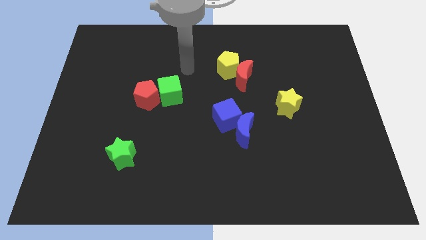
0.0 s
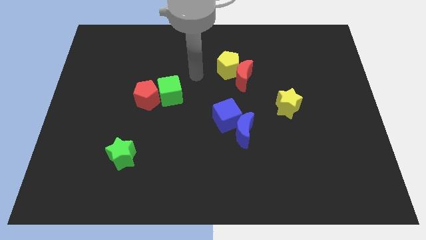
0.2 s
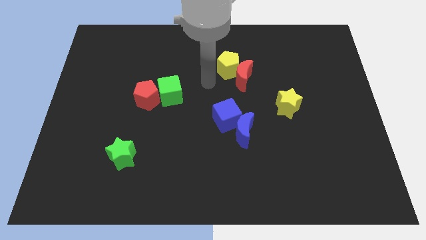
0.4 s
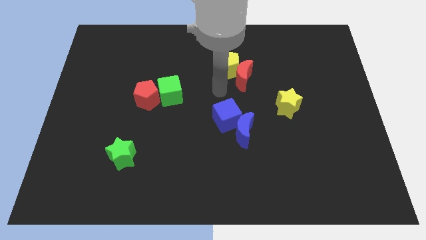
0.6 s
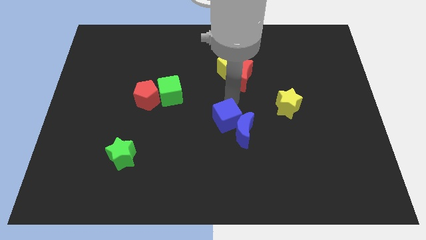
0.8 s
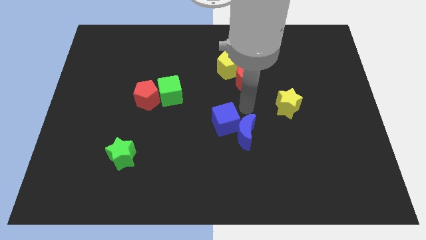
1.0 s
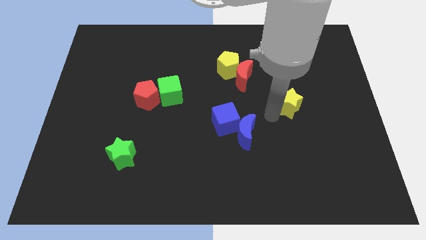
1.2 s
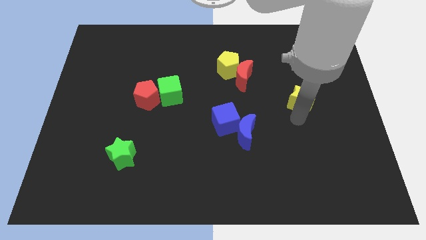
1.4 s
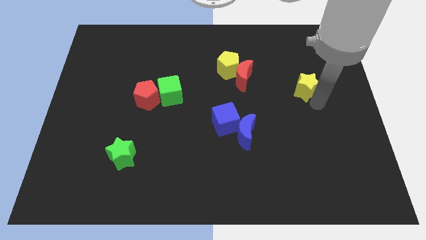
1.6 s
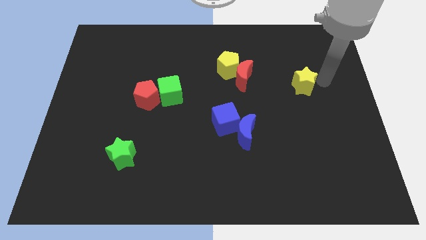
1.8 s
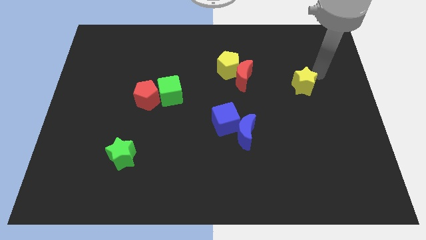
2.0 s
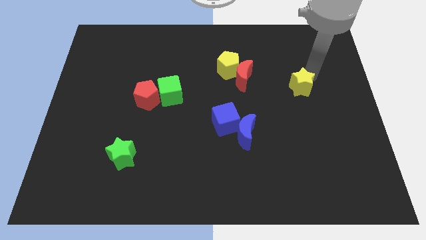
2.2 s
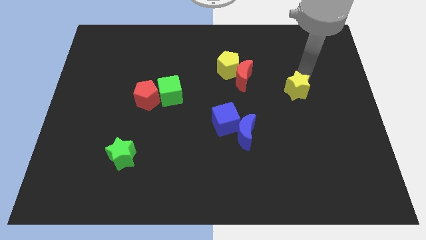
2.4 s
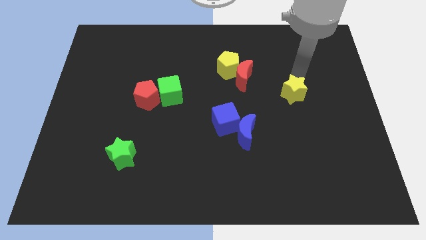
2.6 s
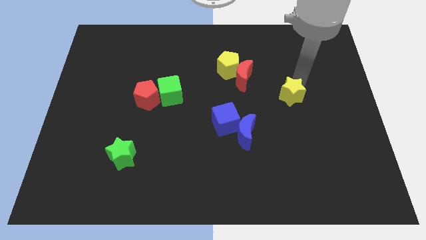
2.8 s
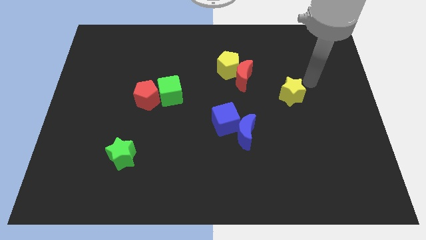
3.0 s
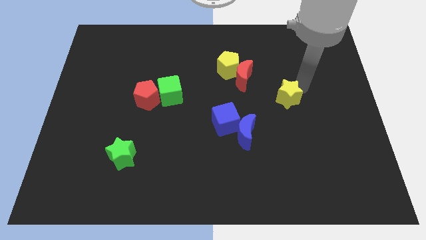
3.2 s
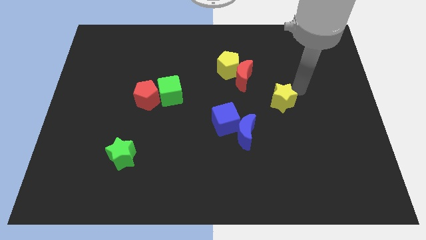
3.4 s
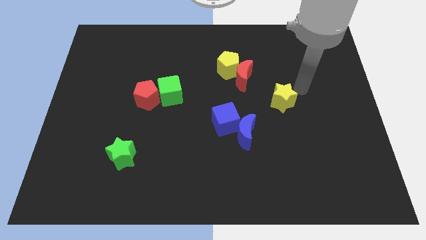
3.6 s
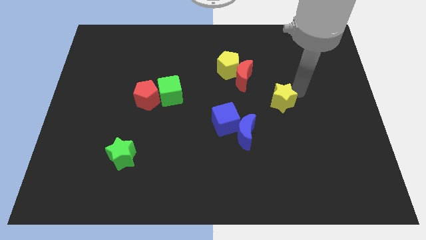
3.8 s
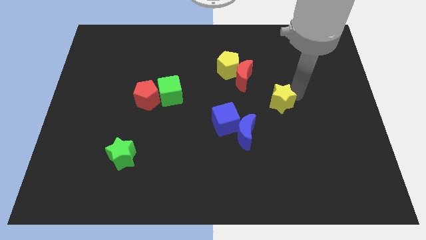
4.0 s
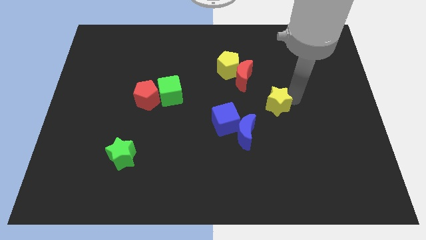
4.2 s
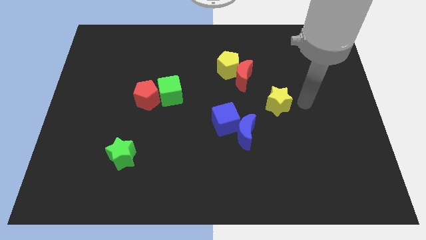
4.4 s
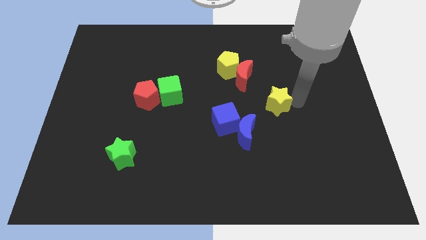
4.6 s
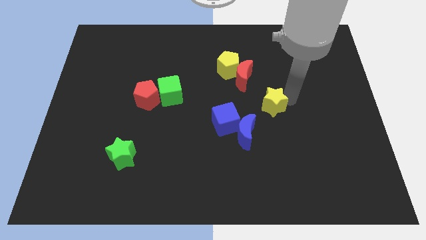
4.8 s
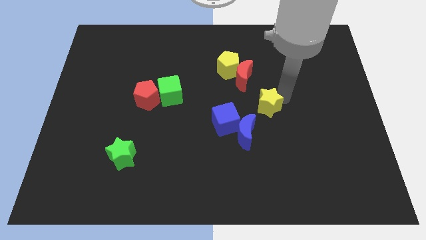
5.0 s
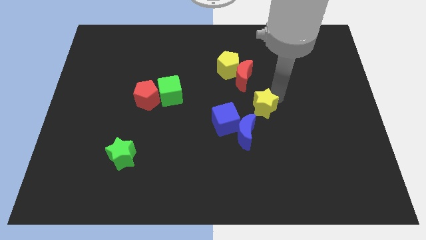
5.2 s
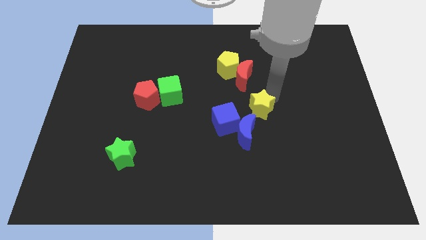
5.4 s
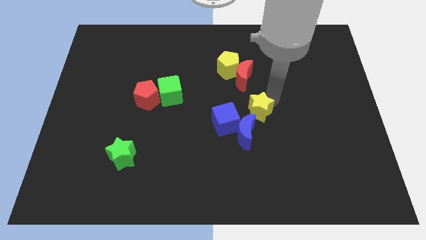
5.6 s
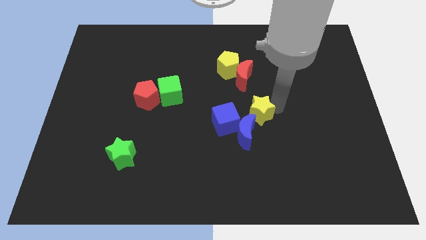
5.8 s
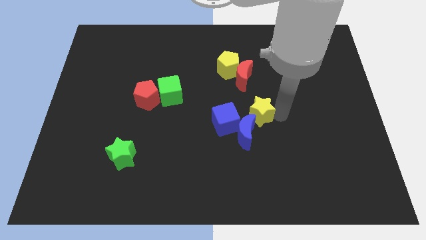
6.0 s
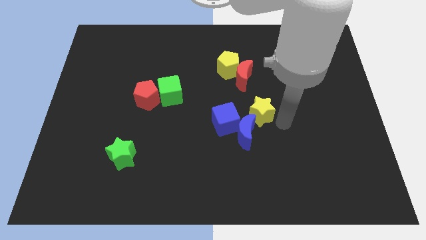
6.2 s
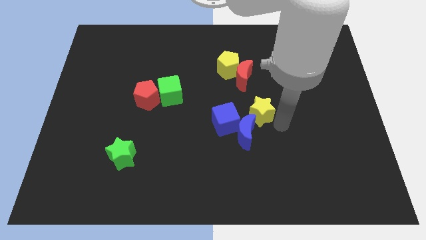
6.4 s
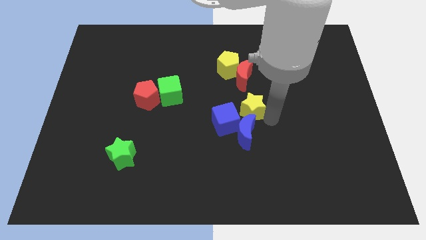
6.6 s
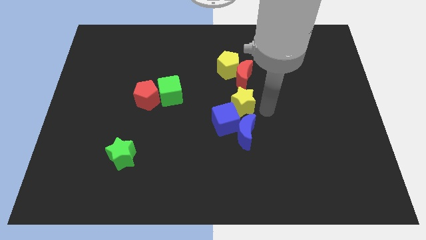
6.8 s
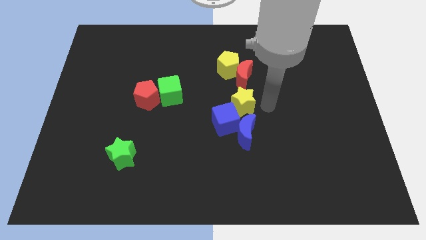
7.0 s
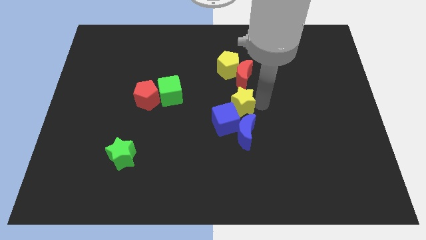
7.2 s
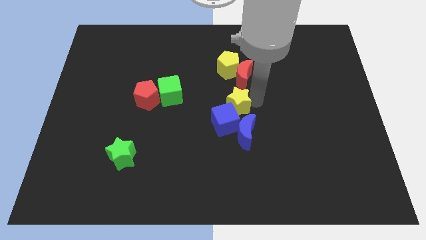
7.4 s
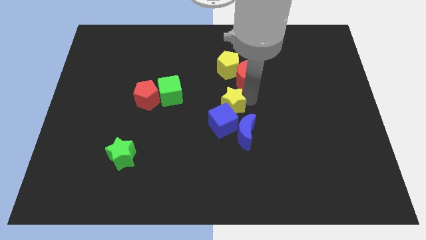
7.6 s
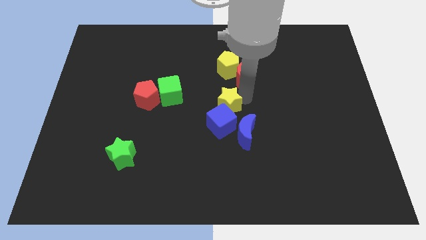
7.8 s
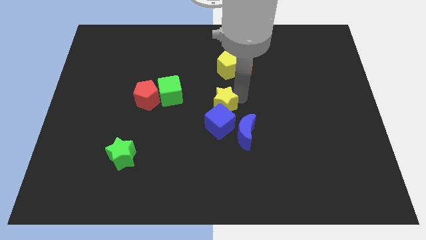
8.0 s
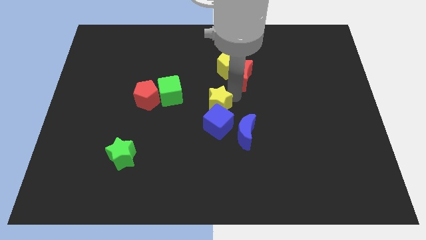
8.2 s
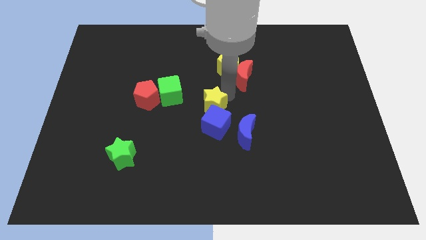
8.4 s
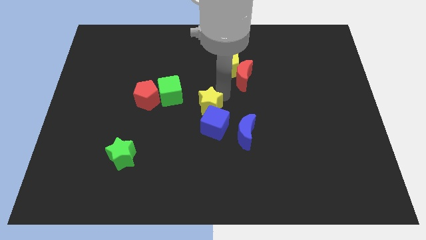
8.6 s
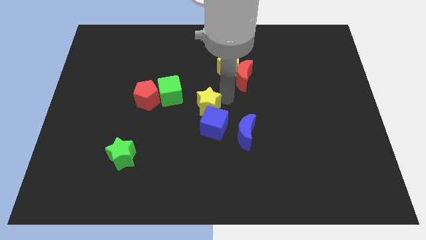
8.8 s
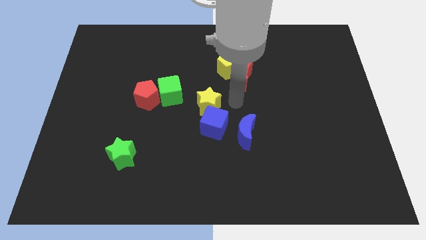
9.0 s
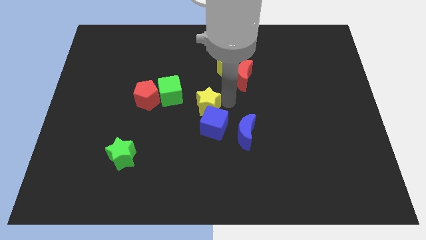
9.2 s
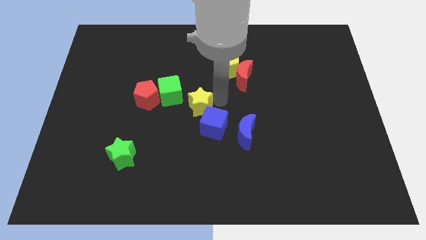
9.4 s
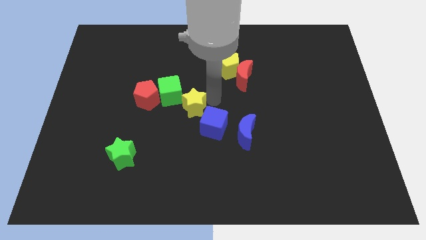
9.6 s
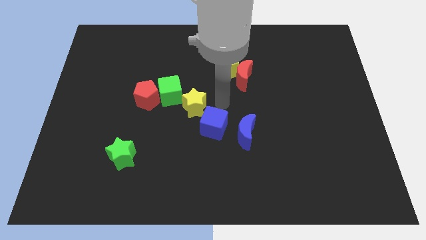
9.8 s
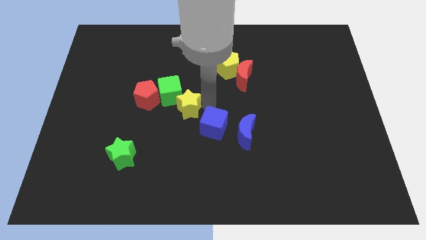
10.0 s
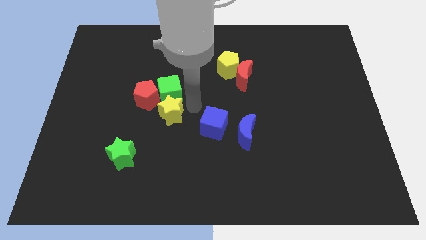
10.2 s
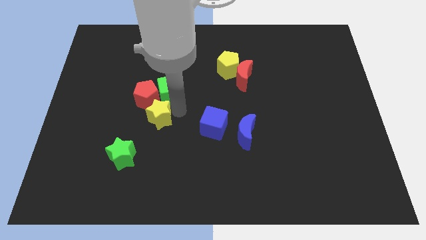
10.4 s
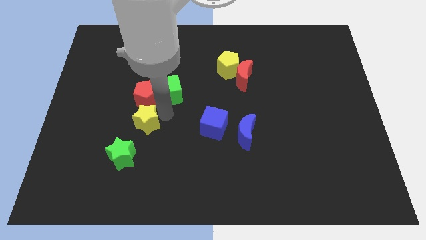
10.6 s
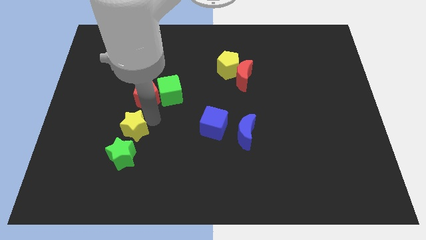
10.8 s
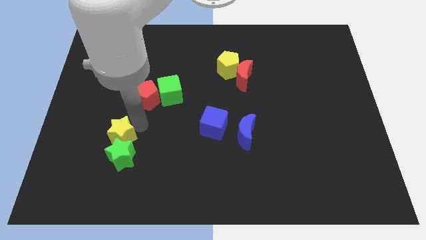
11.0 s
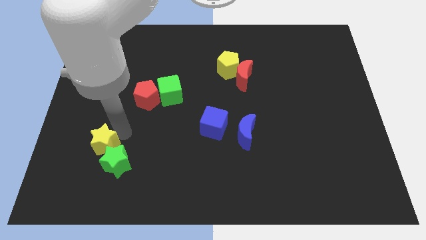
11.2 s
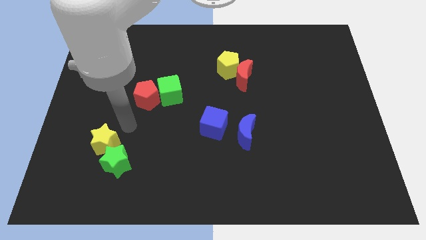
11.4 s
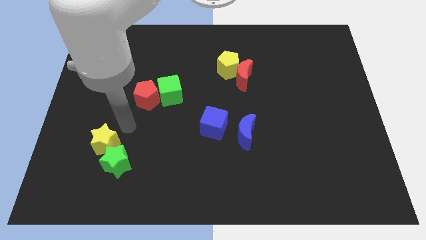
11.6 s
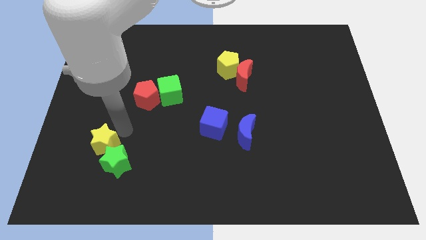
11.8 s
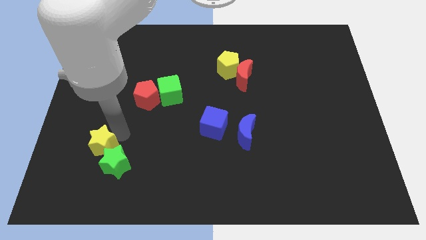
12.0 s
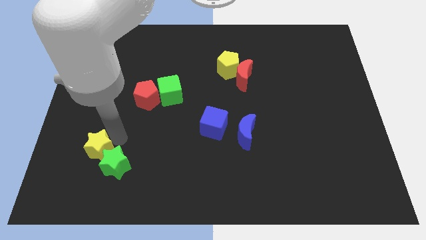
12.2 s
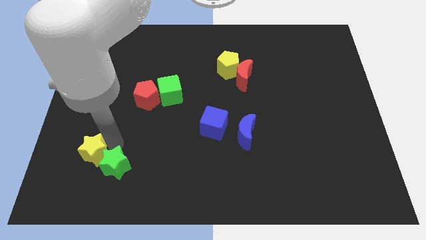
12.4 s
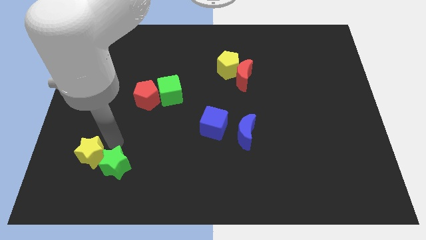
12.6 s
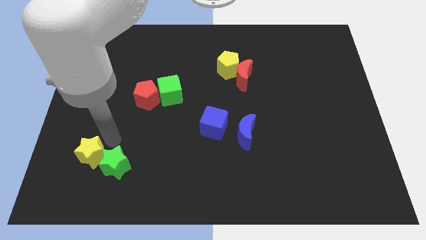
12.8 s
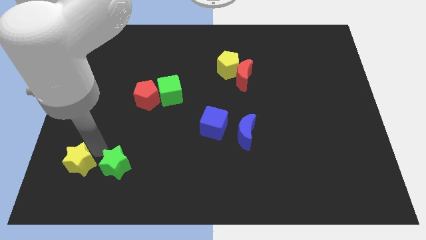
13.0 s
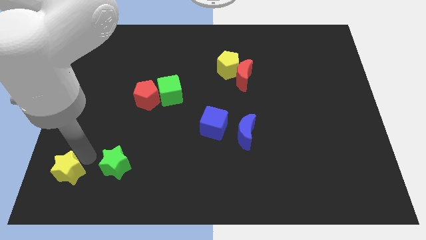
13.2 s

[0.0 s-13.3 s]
move the yellow star to the bottom left corner
